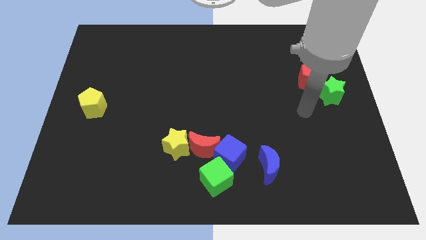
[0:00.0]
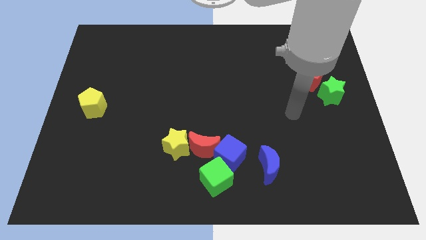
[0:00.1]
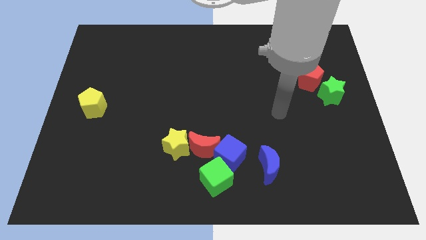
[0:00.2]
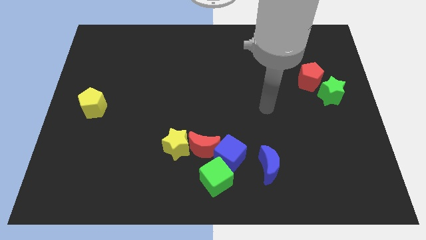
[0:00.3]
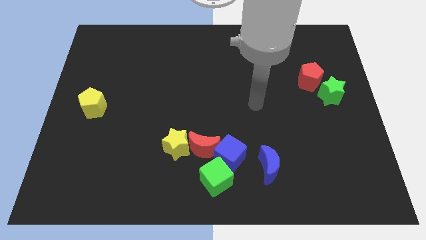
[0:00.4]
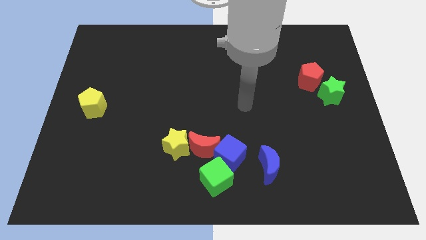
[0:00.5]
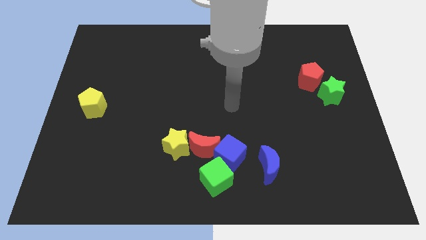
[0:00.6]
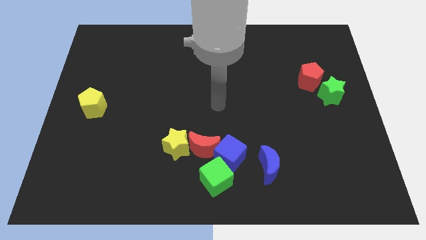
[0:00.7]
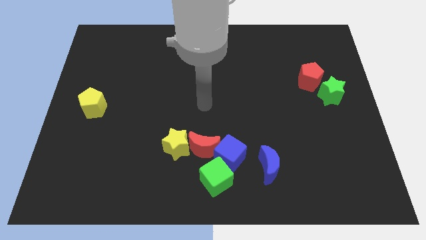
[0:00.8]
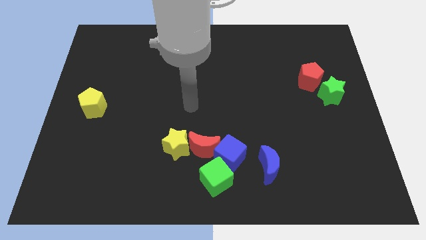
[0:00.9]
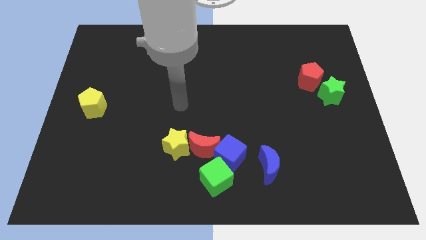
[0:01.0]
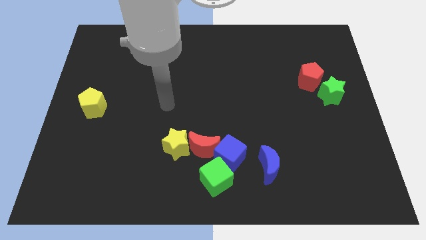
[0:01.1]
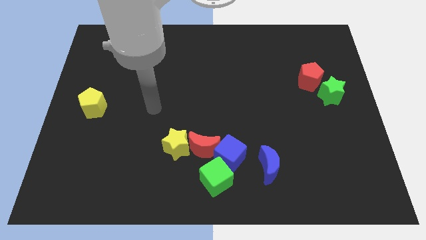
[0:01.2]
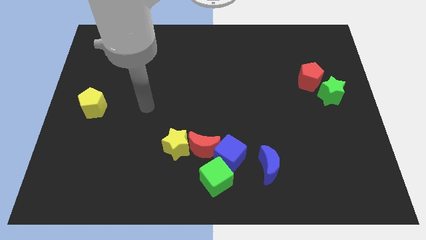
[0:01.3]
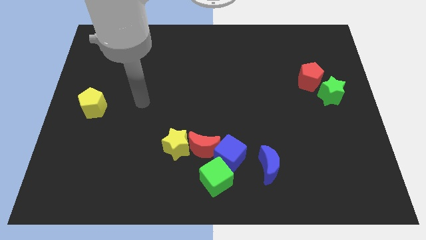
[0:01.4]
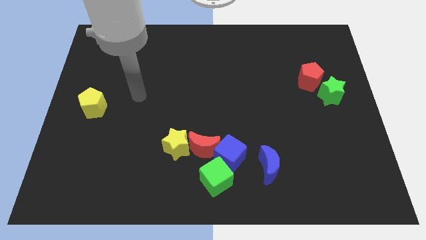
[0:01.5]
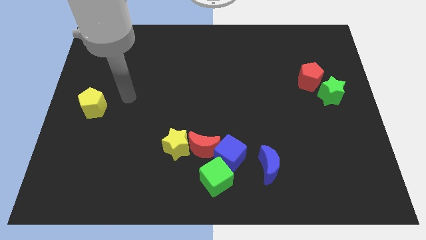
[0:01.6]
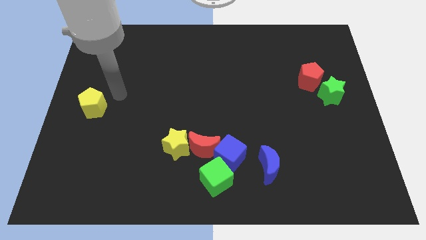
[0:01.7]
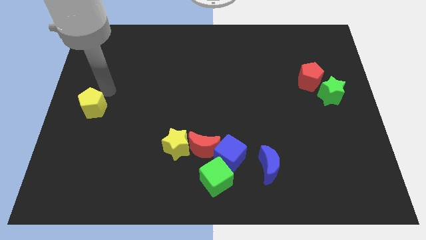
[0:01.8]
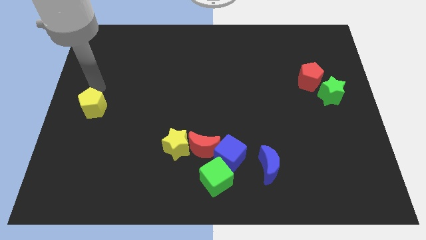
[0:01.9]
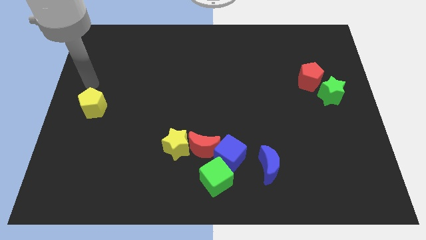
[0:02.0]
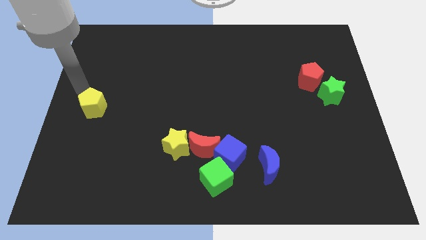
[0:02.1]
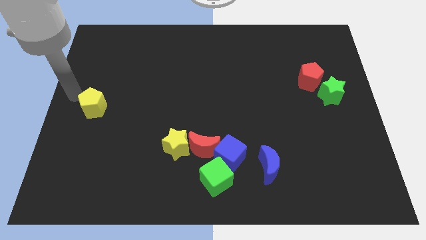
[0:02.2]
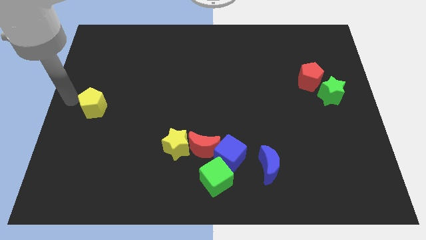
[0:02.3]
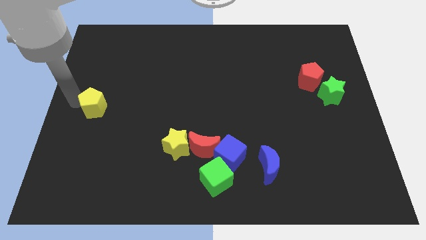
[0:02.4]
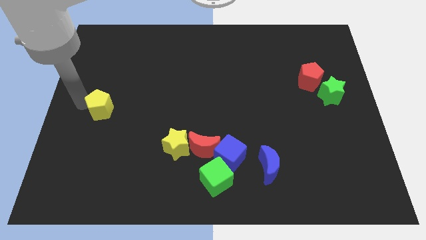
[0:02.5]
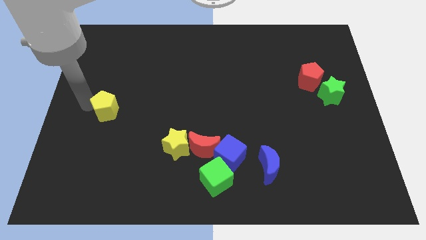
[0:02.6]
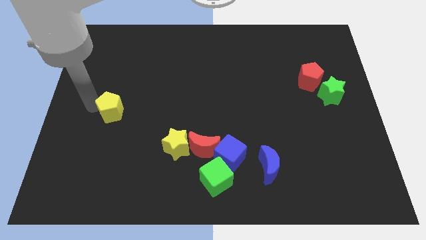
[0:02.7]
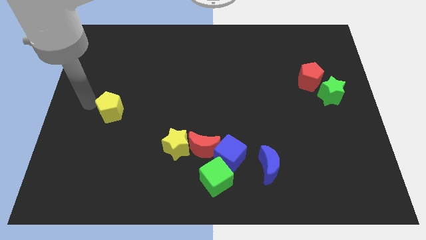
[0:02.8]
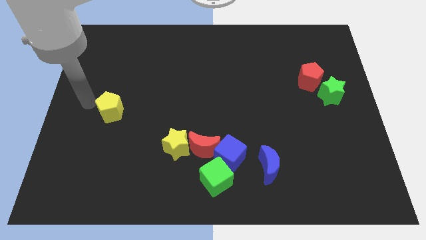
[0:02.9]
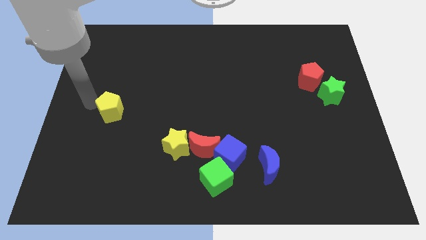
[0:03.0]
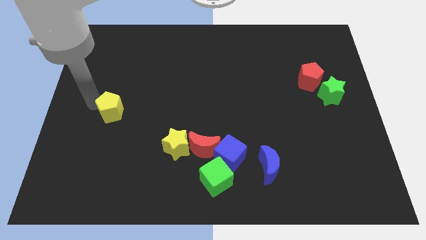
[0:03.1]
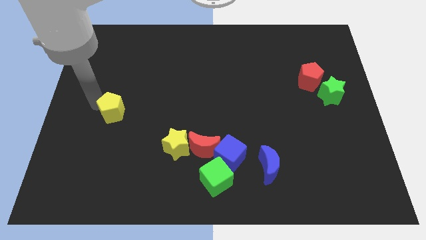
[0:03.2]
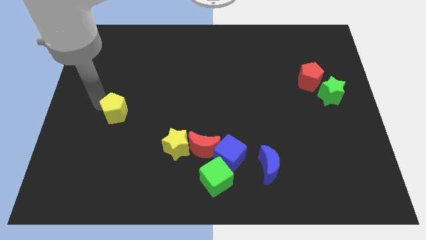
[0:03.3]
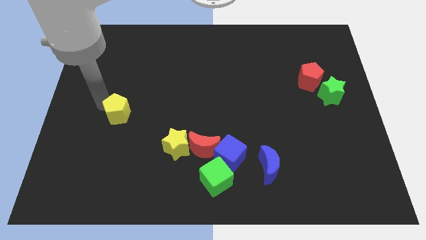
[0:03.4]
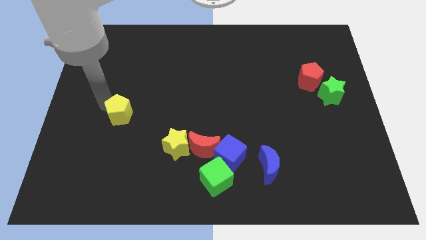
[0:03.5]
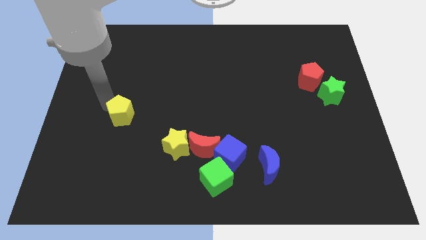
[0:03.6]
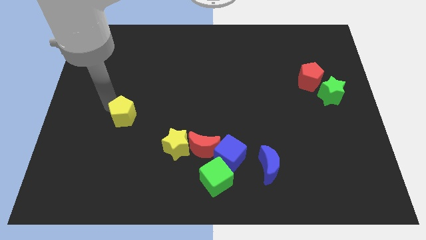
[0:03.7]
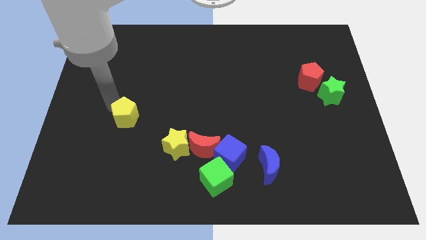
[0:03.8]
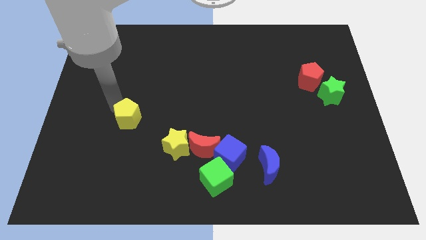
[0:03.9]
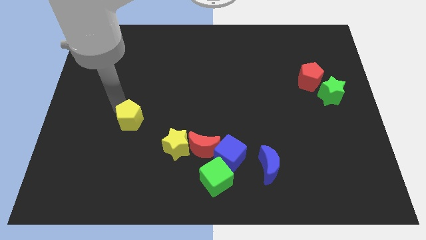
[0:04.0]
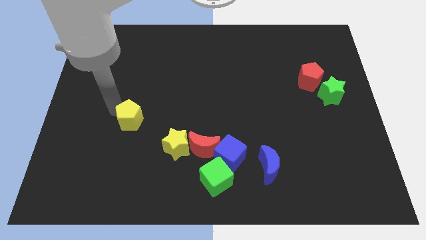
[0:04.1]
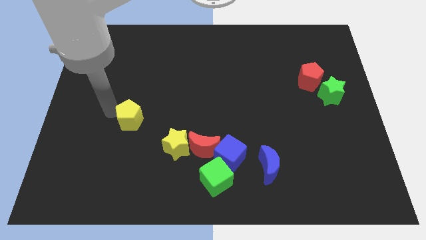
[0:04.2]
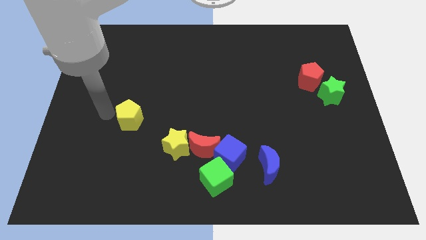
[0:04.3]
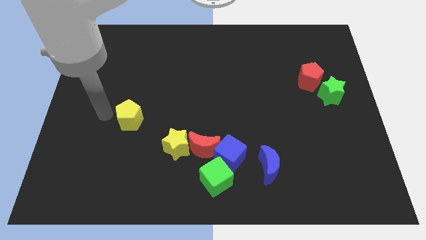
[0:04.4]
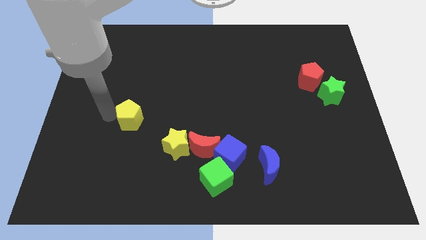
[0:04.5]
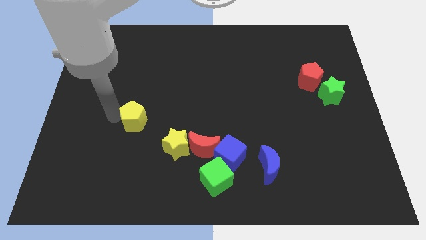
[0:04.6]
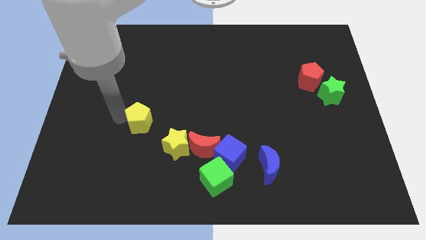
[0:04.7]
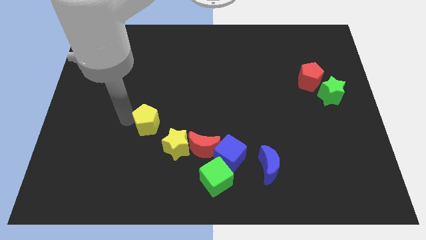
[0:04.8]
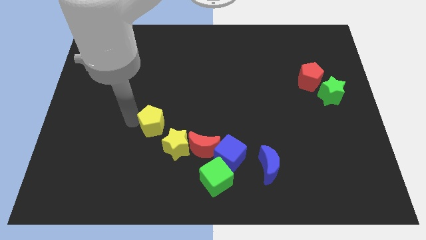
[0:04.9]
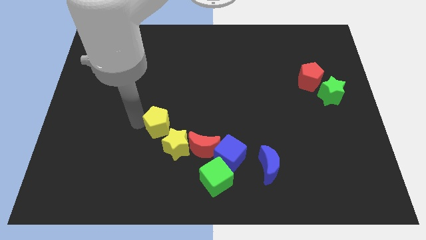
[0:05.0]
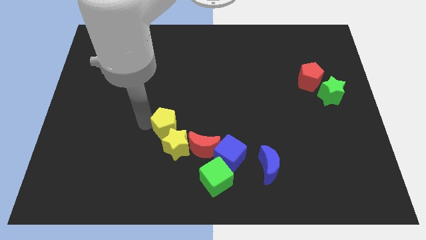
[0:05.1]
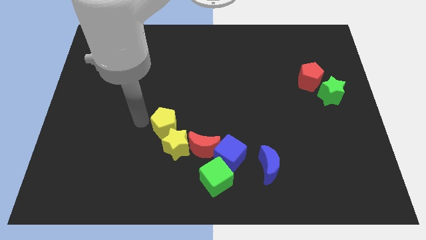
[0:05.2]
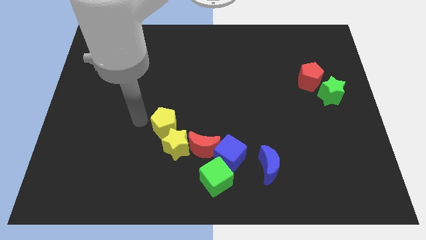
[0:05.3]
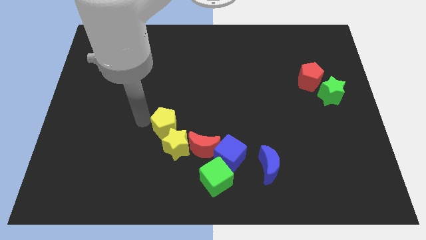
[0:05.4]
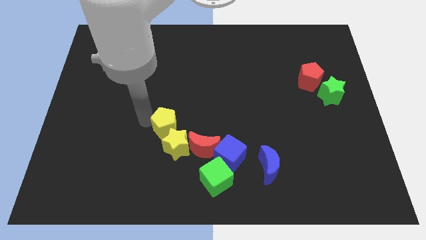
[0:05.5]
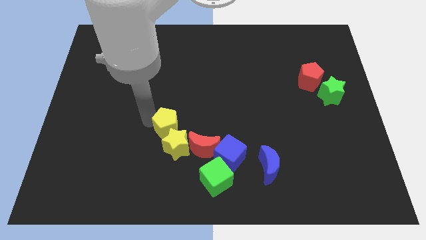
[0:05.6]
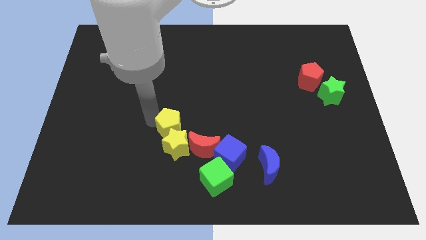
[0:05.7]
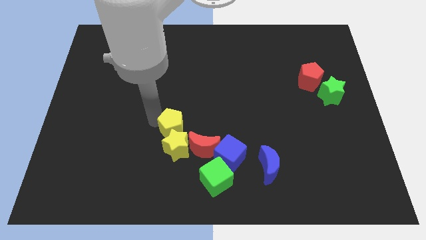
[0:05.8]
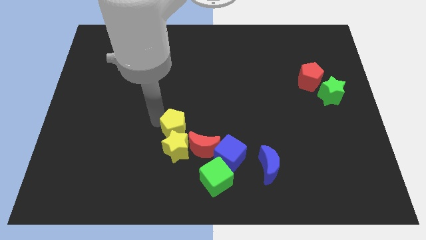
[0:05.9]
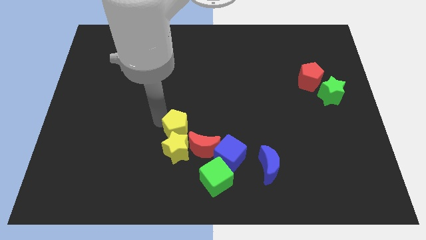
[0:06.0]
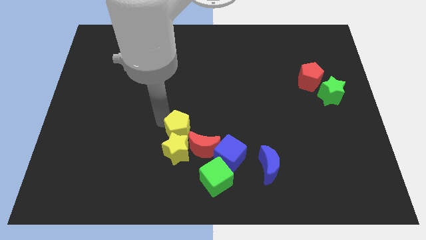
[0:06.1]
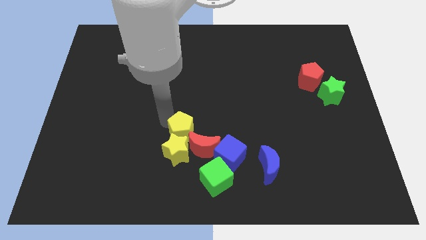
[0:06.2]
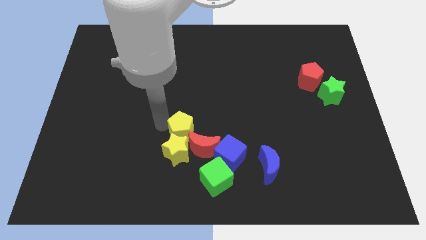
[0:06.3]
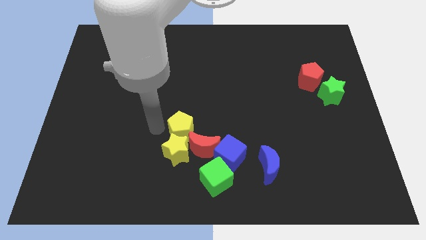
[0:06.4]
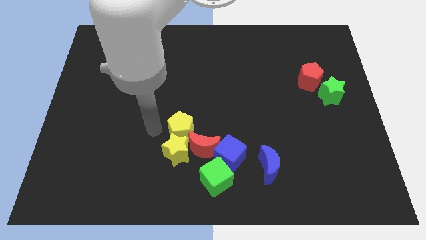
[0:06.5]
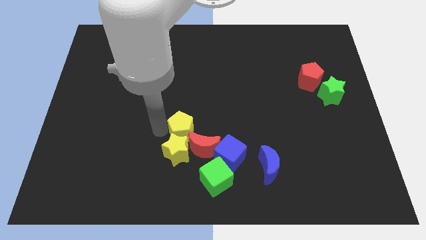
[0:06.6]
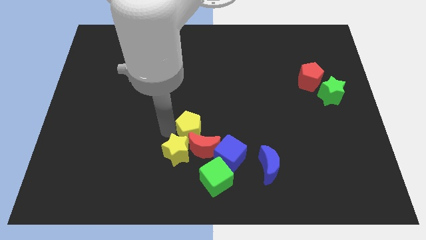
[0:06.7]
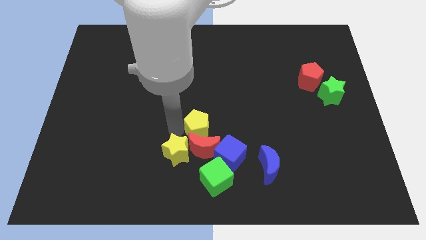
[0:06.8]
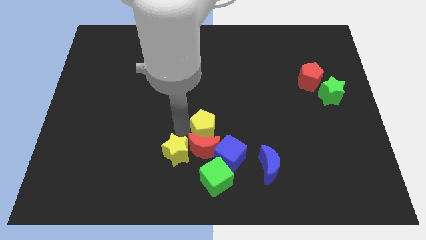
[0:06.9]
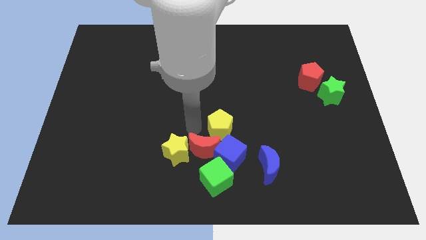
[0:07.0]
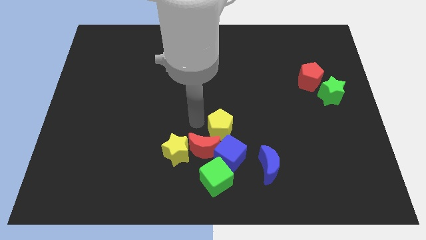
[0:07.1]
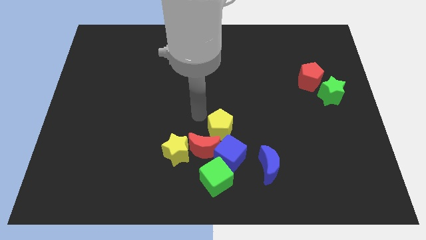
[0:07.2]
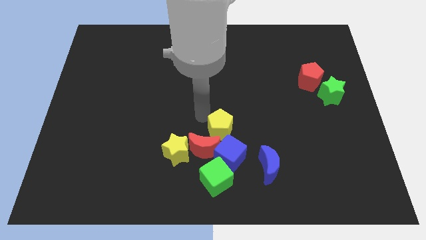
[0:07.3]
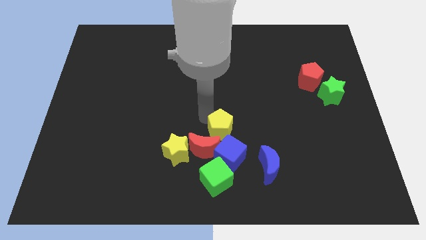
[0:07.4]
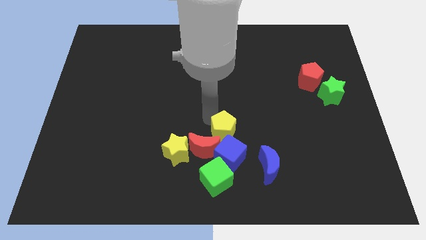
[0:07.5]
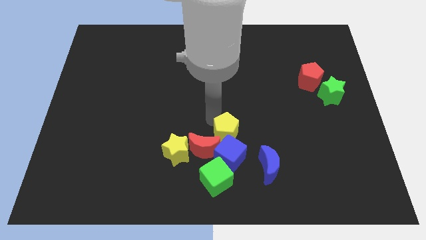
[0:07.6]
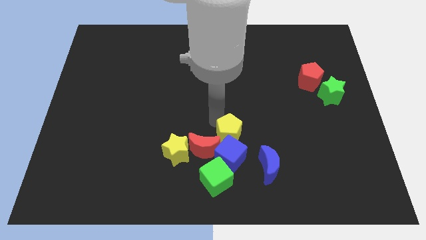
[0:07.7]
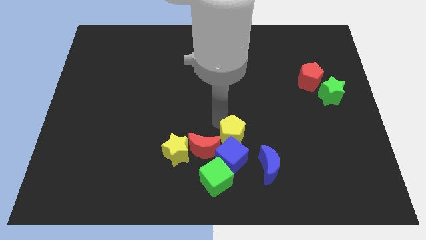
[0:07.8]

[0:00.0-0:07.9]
push the yellow pentagon just right of the yellow star
